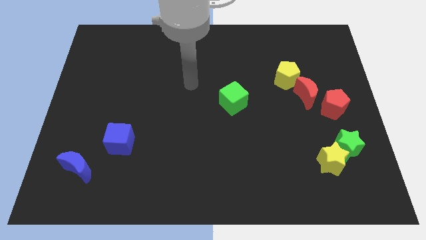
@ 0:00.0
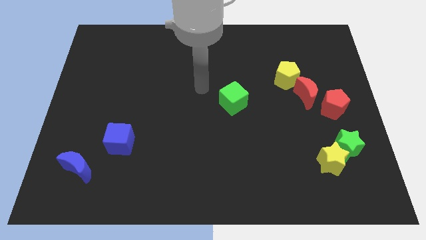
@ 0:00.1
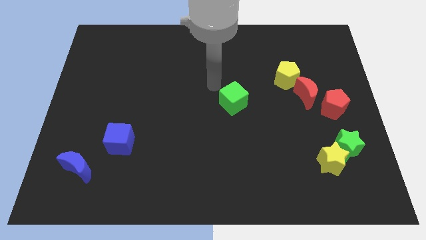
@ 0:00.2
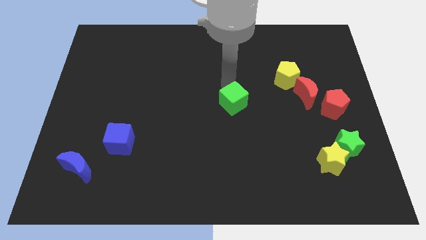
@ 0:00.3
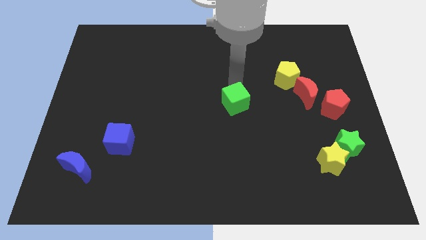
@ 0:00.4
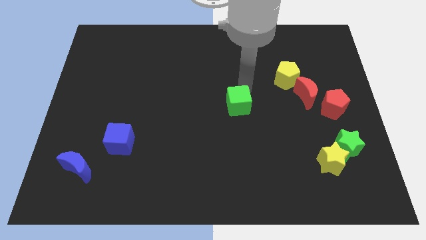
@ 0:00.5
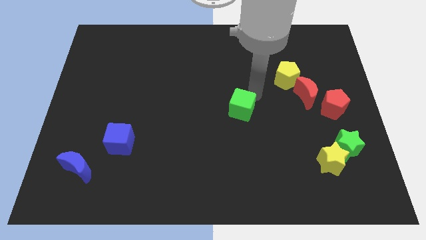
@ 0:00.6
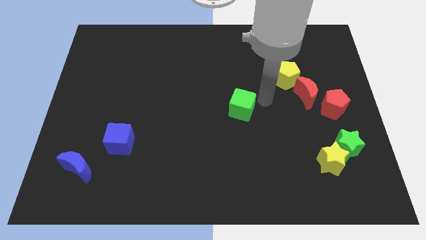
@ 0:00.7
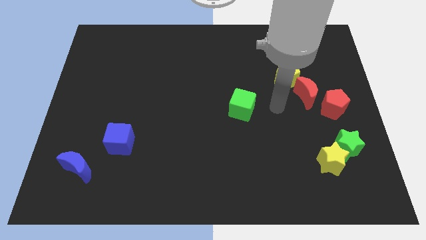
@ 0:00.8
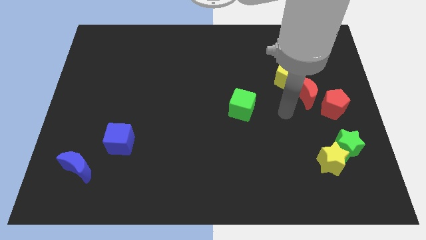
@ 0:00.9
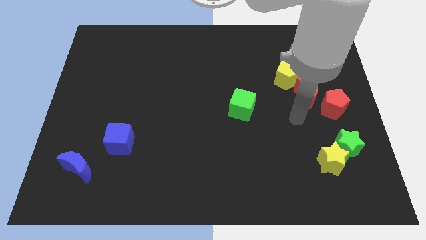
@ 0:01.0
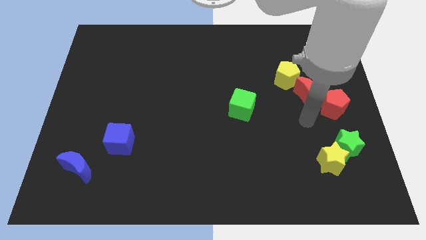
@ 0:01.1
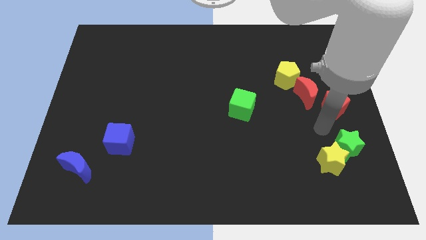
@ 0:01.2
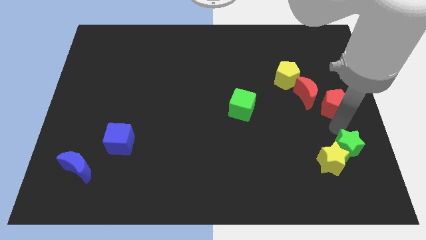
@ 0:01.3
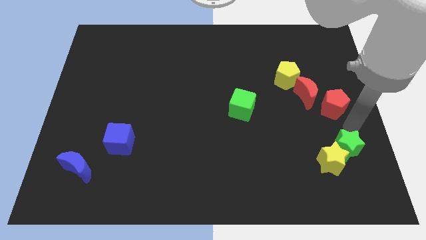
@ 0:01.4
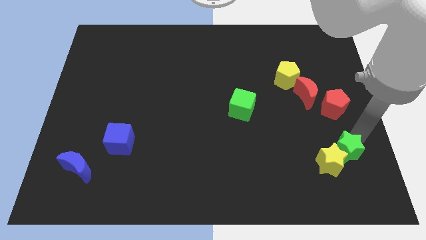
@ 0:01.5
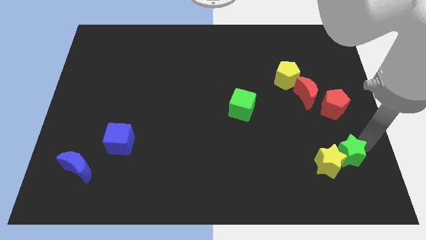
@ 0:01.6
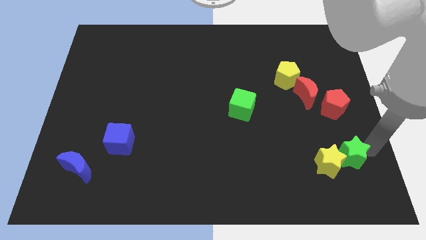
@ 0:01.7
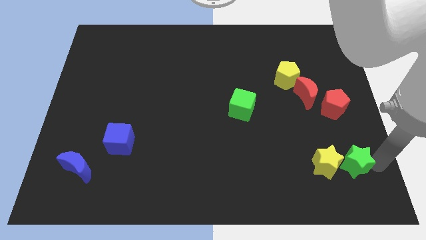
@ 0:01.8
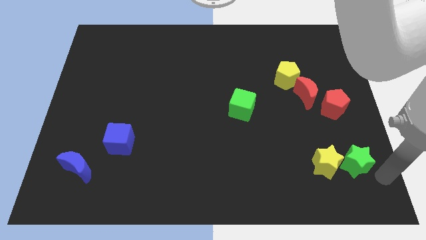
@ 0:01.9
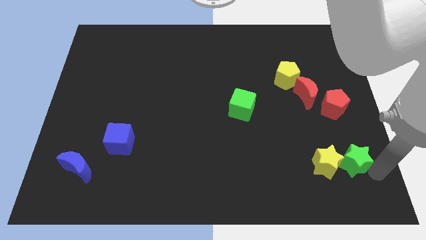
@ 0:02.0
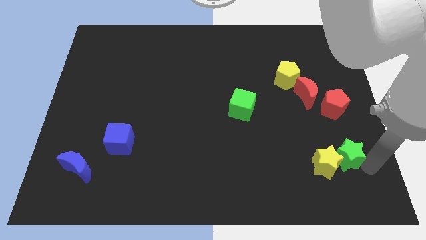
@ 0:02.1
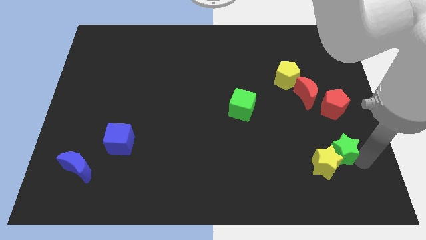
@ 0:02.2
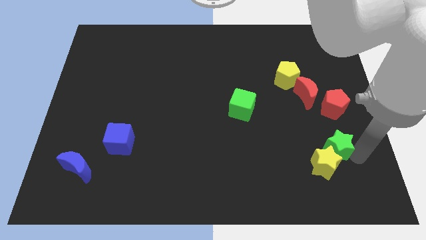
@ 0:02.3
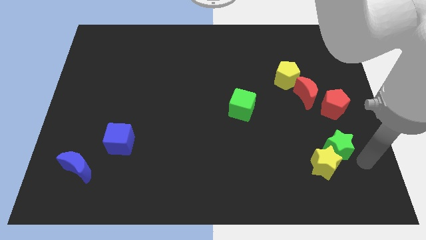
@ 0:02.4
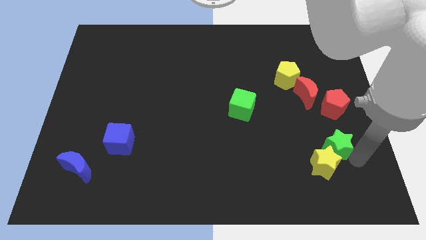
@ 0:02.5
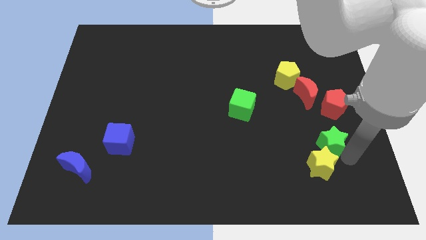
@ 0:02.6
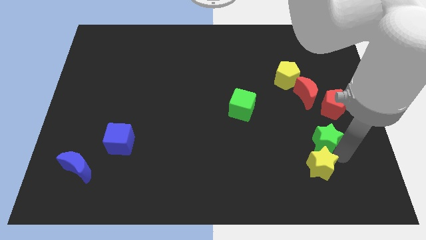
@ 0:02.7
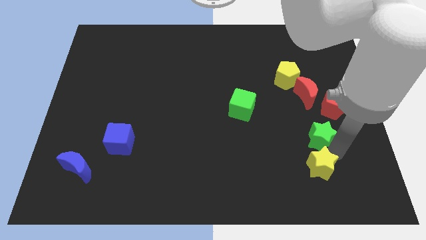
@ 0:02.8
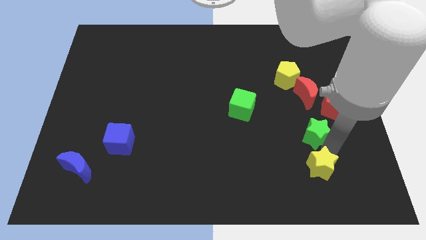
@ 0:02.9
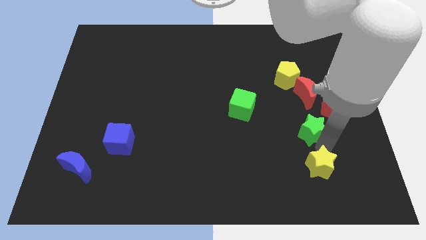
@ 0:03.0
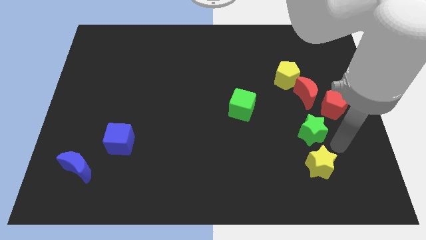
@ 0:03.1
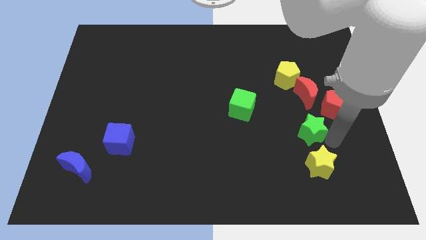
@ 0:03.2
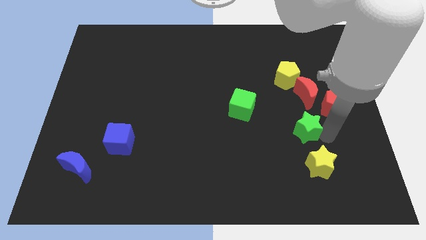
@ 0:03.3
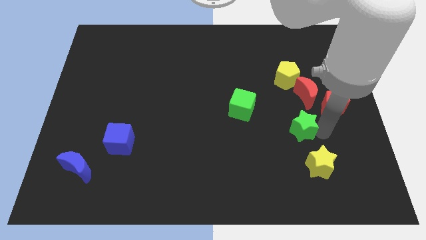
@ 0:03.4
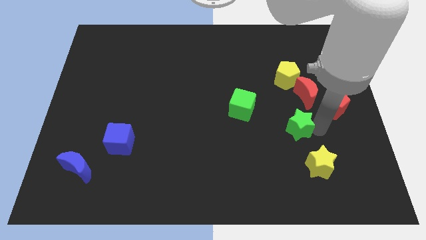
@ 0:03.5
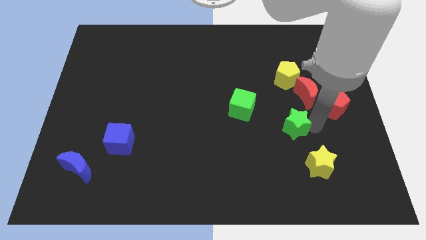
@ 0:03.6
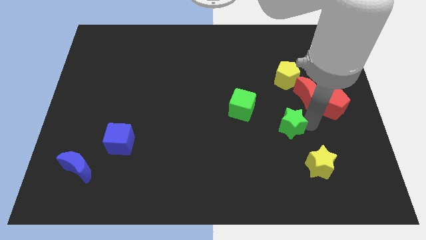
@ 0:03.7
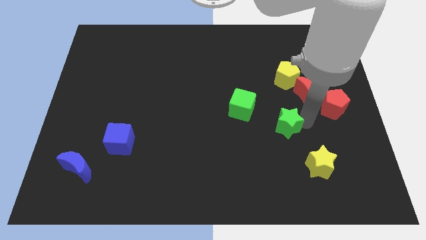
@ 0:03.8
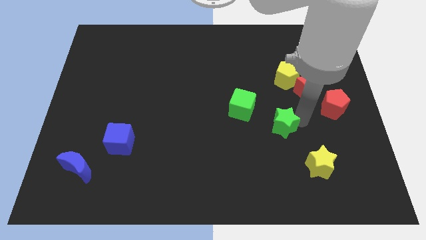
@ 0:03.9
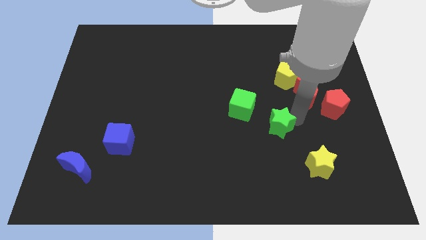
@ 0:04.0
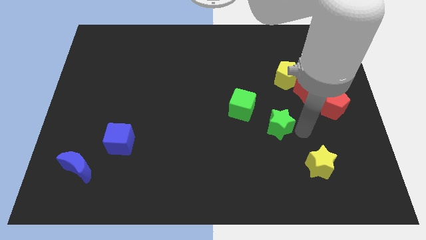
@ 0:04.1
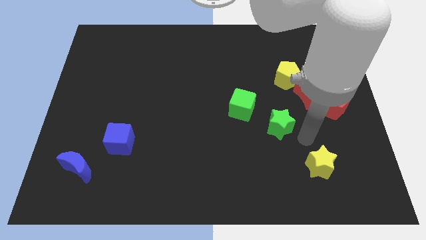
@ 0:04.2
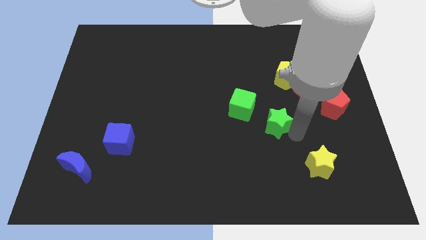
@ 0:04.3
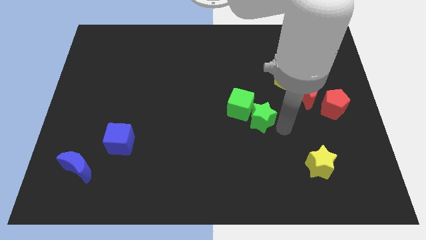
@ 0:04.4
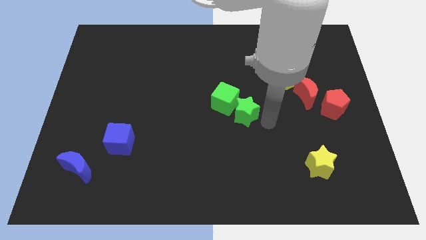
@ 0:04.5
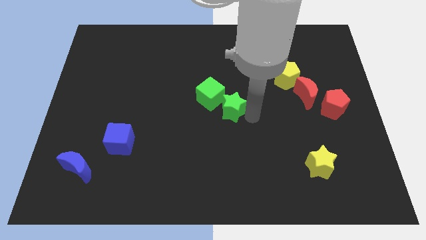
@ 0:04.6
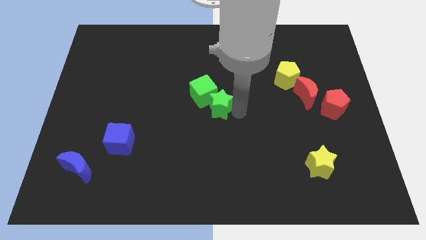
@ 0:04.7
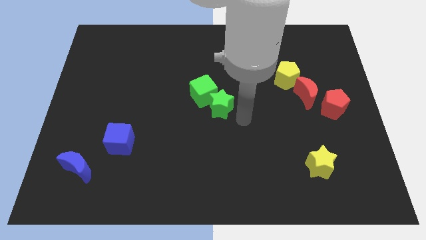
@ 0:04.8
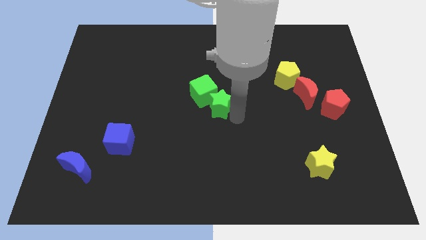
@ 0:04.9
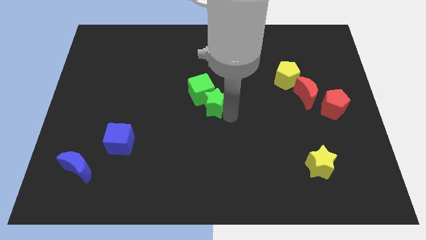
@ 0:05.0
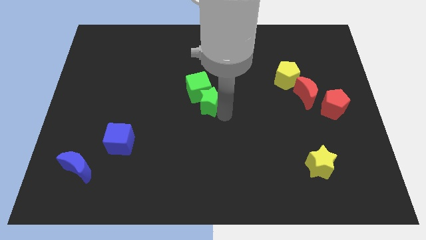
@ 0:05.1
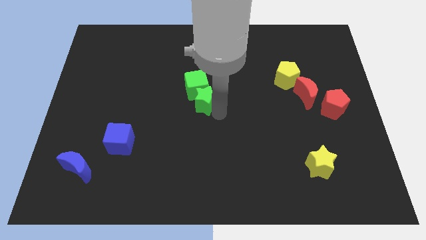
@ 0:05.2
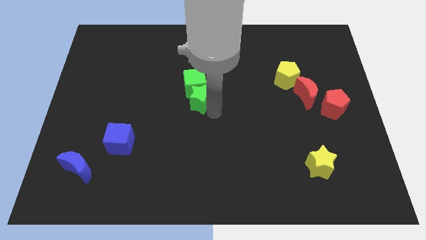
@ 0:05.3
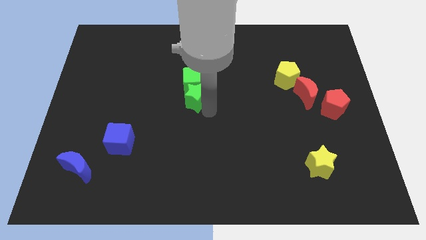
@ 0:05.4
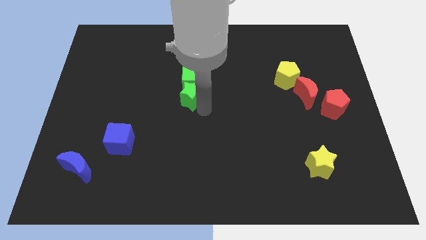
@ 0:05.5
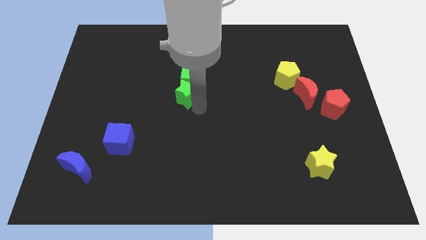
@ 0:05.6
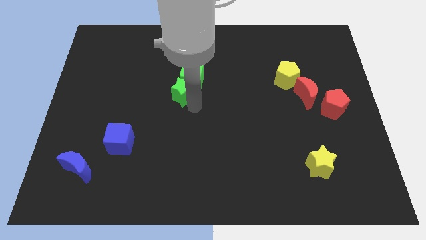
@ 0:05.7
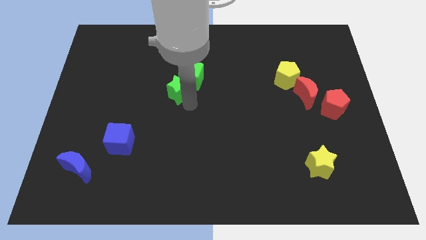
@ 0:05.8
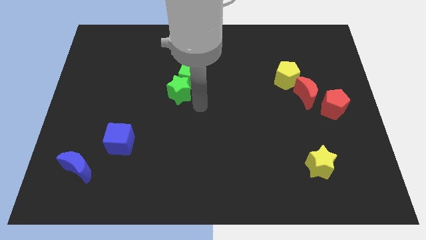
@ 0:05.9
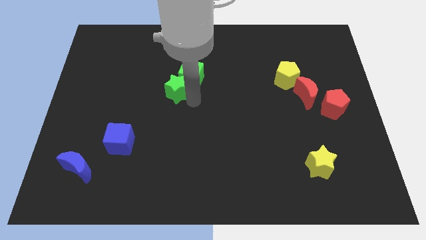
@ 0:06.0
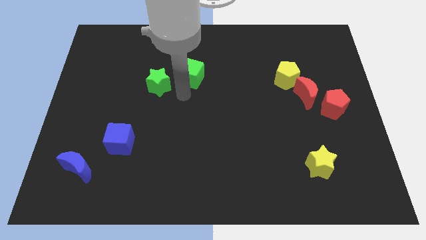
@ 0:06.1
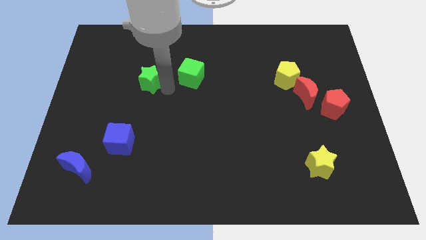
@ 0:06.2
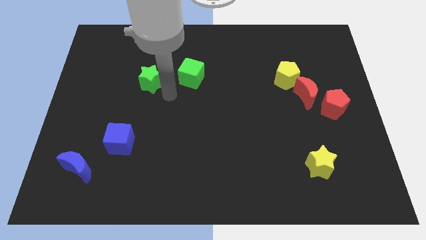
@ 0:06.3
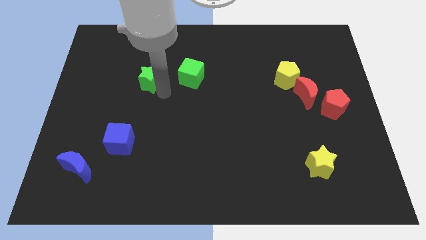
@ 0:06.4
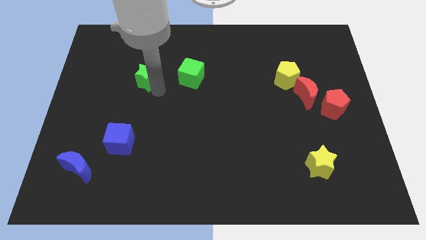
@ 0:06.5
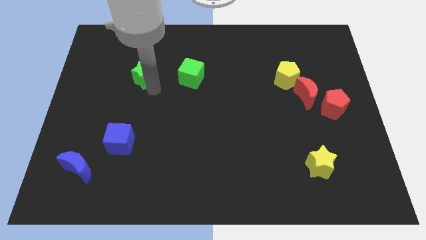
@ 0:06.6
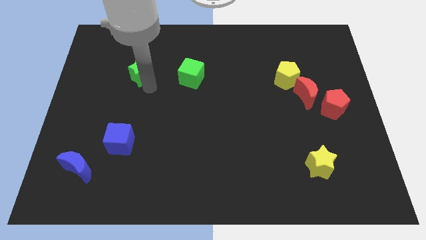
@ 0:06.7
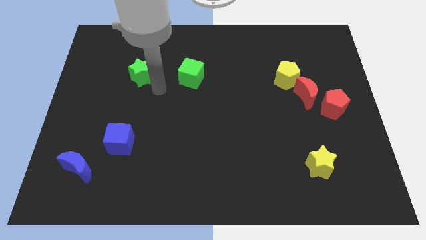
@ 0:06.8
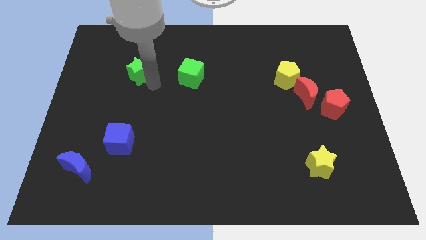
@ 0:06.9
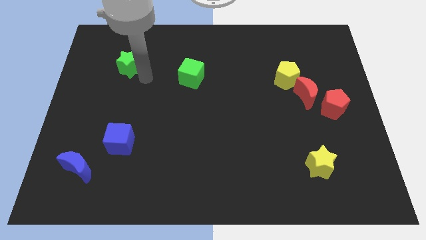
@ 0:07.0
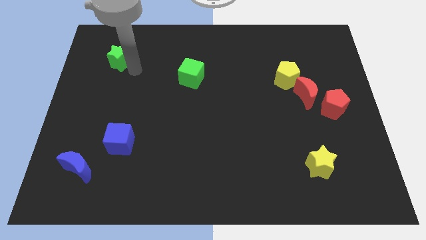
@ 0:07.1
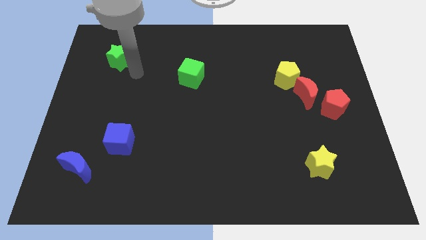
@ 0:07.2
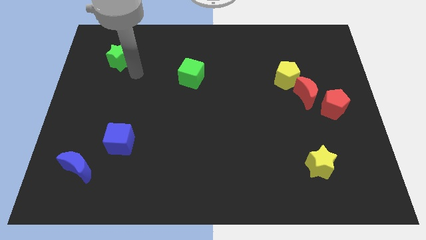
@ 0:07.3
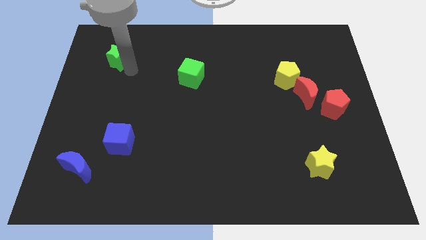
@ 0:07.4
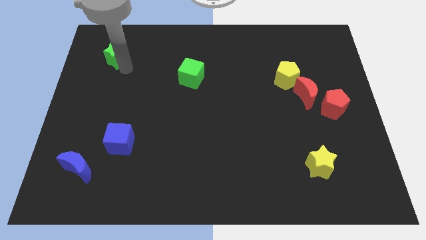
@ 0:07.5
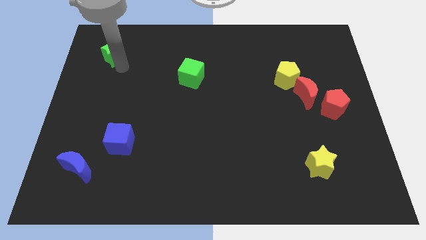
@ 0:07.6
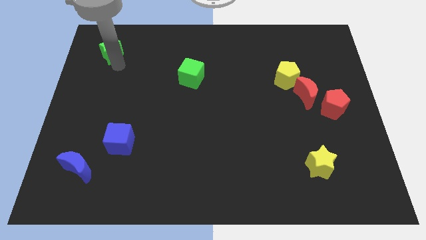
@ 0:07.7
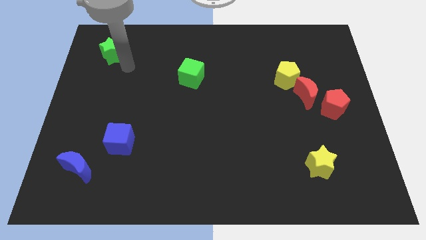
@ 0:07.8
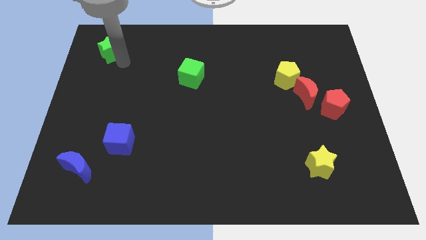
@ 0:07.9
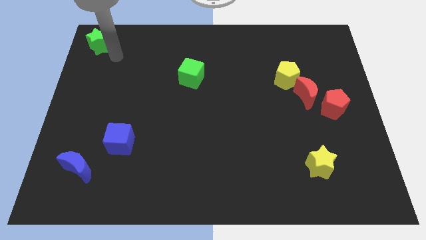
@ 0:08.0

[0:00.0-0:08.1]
push the green star to the top left corner
